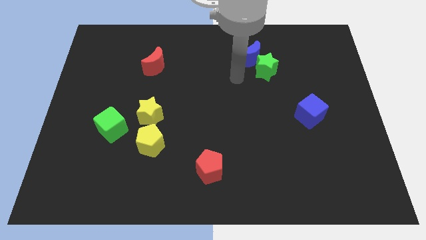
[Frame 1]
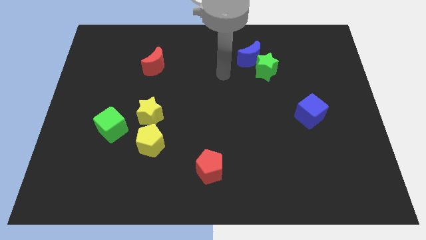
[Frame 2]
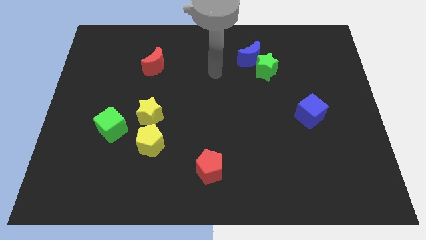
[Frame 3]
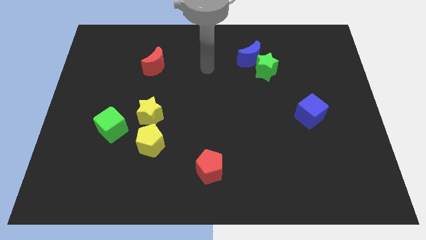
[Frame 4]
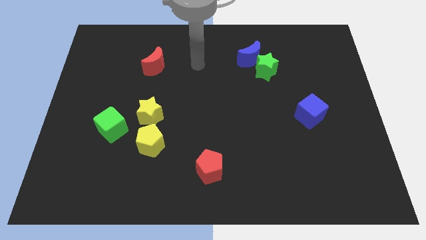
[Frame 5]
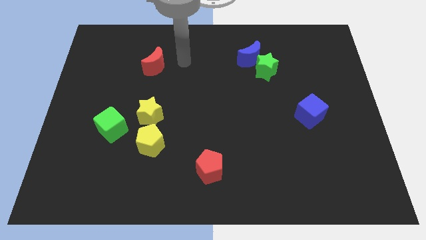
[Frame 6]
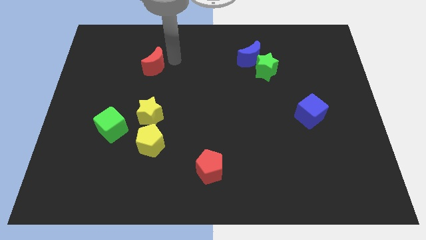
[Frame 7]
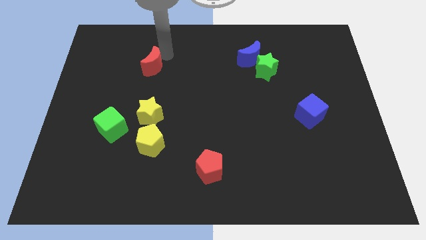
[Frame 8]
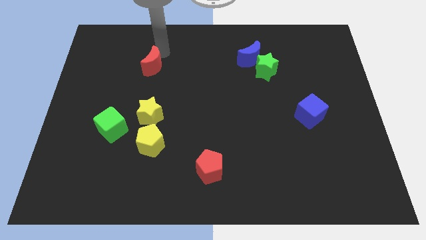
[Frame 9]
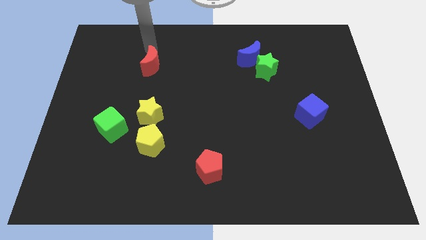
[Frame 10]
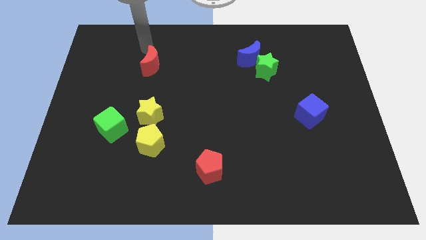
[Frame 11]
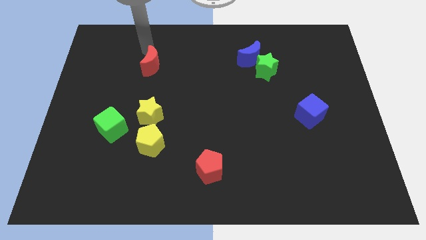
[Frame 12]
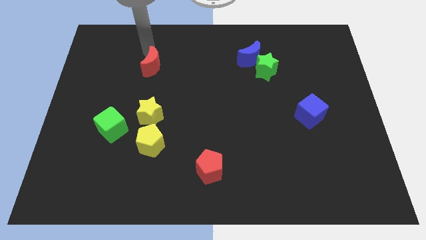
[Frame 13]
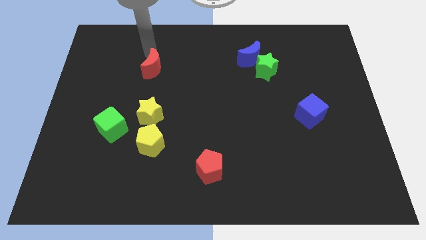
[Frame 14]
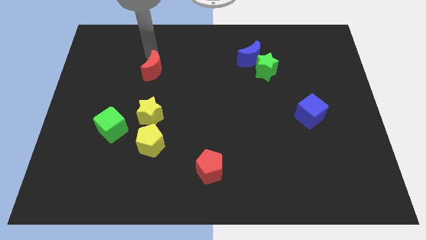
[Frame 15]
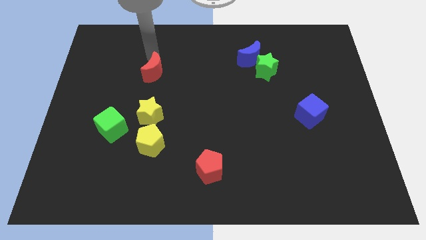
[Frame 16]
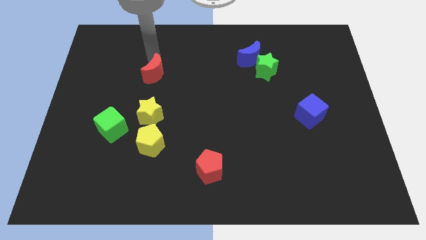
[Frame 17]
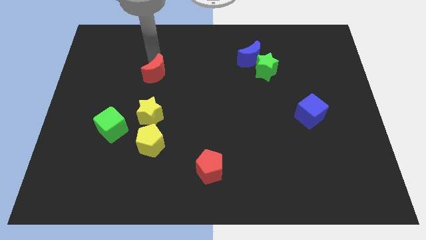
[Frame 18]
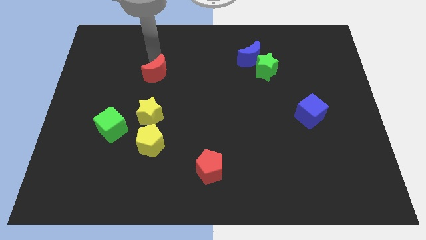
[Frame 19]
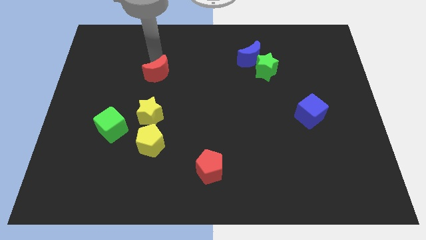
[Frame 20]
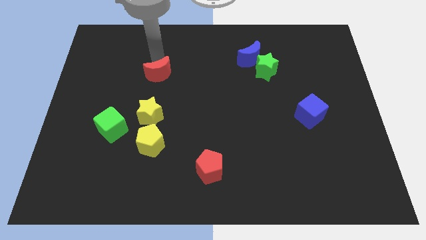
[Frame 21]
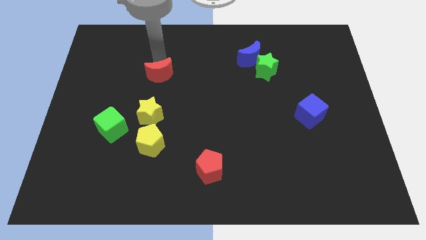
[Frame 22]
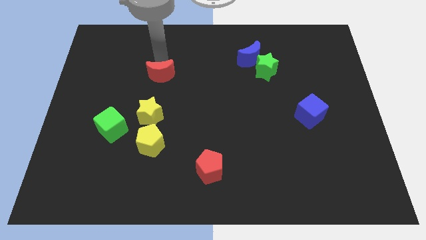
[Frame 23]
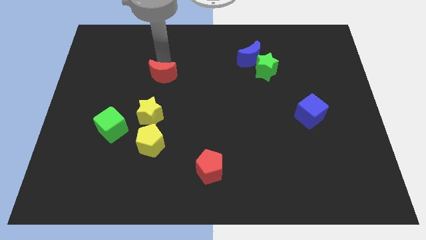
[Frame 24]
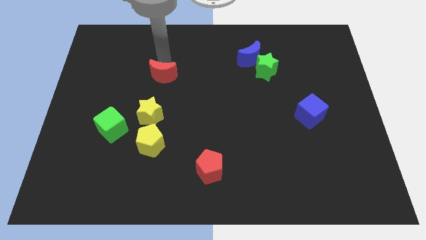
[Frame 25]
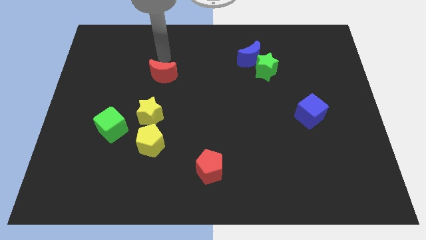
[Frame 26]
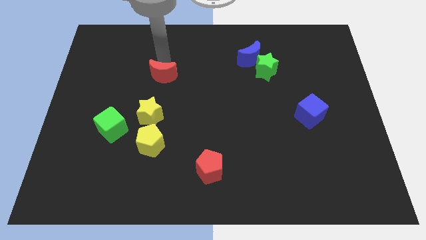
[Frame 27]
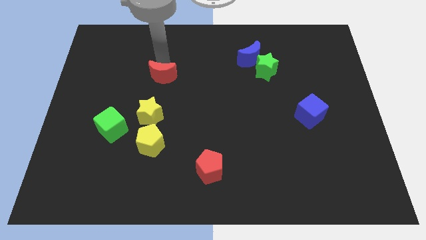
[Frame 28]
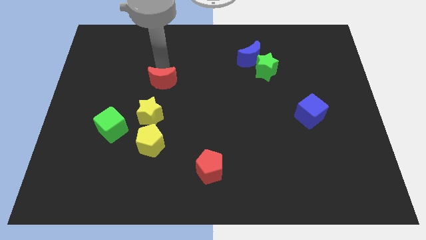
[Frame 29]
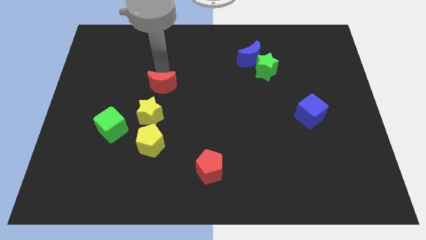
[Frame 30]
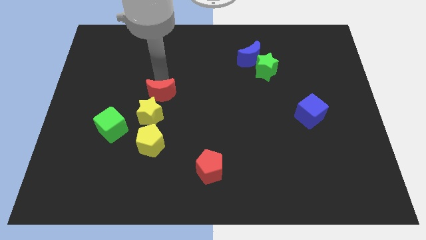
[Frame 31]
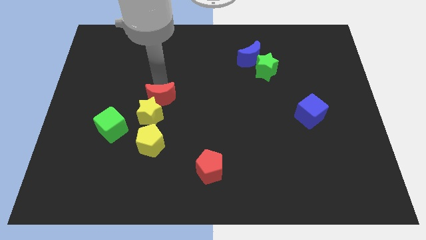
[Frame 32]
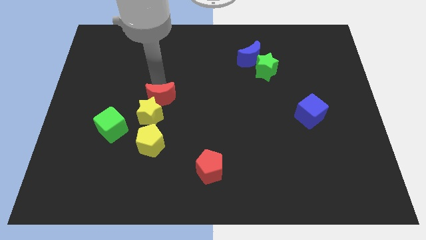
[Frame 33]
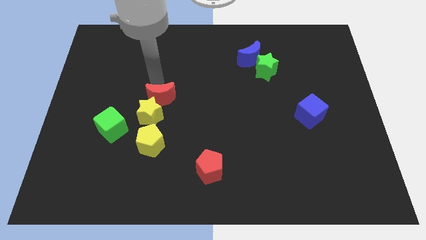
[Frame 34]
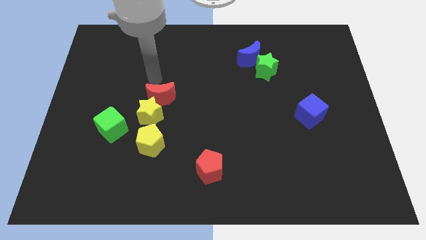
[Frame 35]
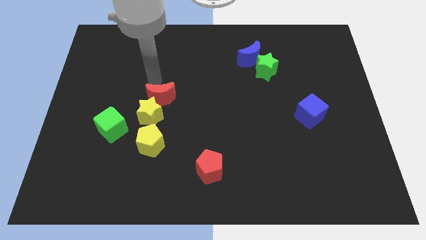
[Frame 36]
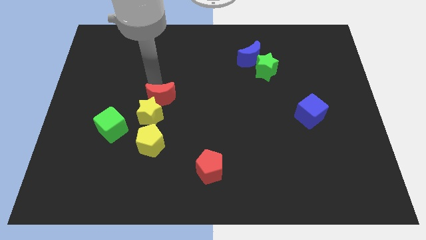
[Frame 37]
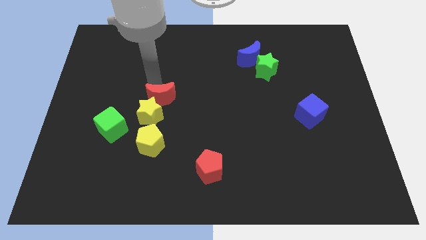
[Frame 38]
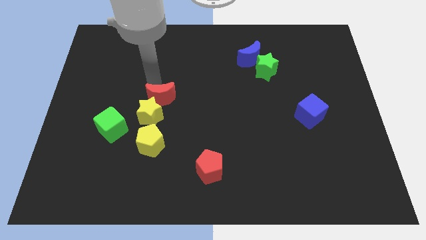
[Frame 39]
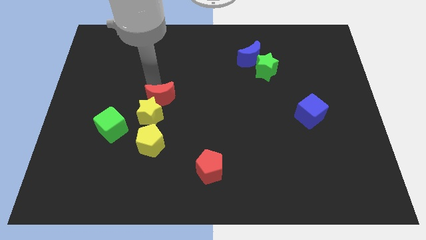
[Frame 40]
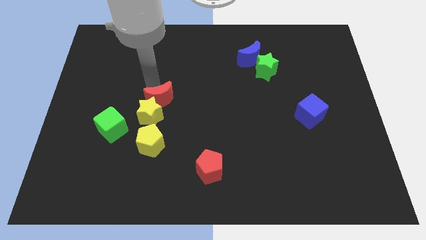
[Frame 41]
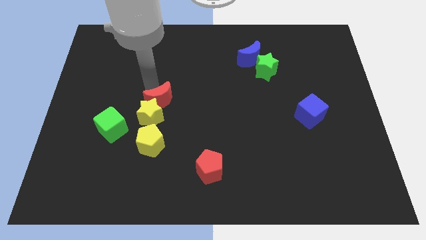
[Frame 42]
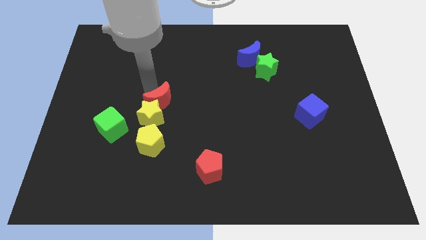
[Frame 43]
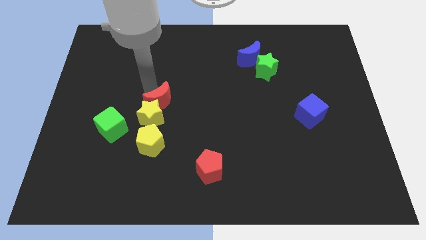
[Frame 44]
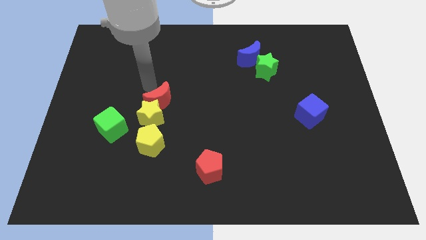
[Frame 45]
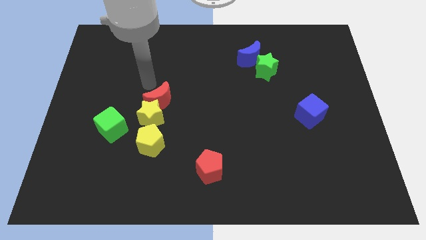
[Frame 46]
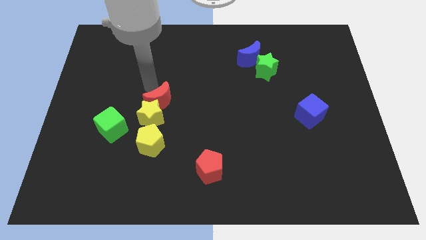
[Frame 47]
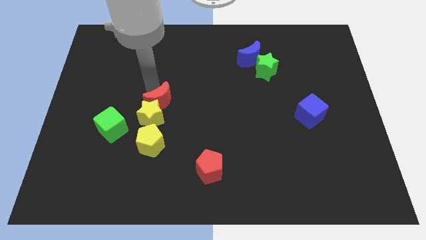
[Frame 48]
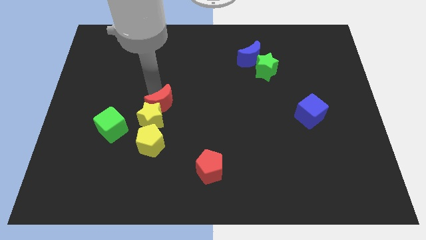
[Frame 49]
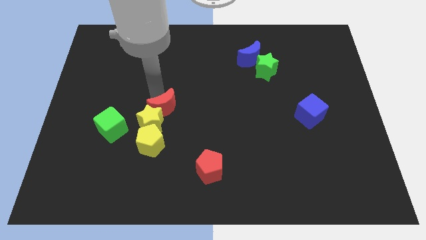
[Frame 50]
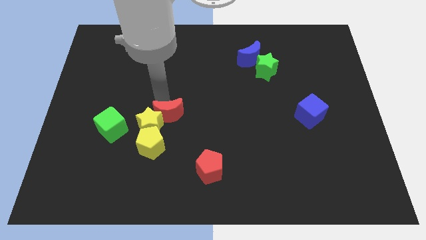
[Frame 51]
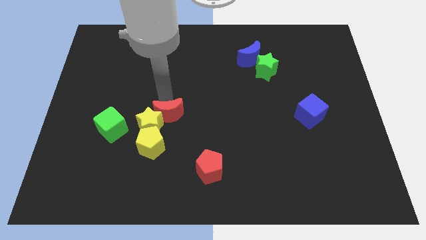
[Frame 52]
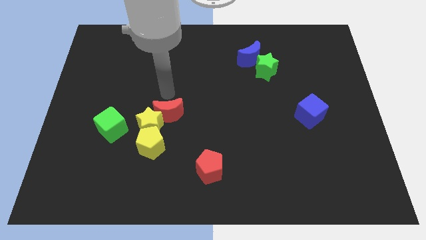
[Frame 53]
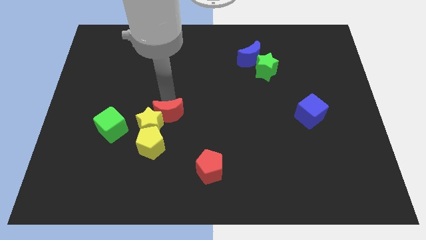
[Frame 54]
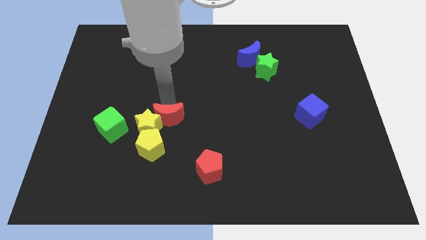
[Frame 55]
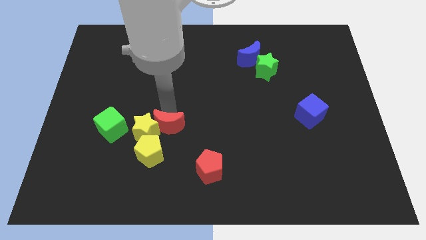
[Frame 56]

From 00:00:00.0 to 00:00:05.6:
move the red moon diagonally down and to the right of the yellow star

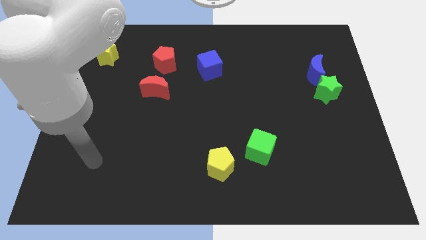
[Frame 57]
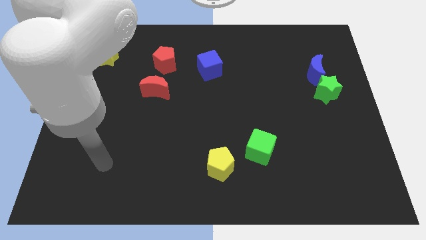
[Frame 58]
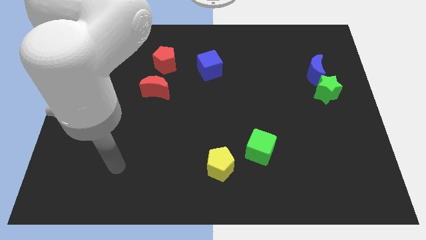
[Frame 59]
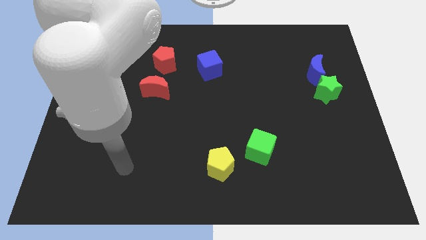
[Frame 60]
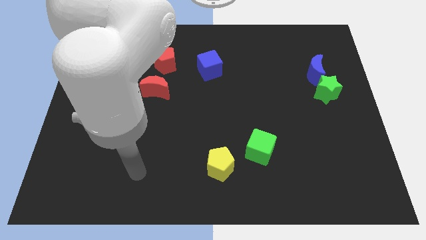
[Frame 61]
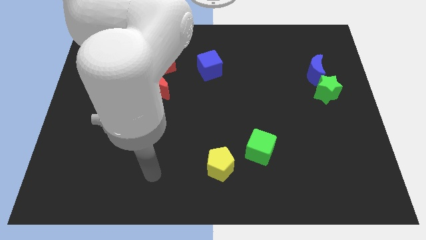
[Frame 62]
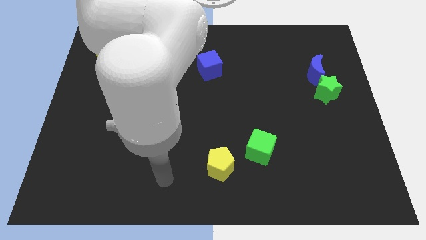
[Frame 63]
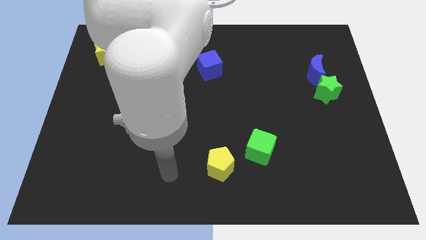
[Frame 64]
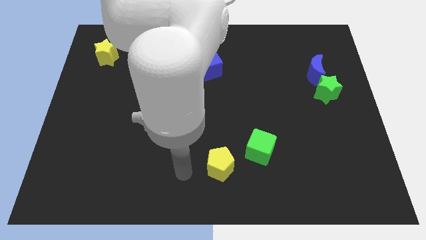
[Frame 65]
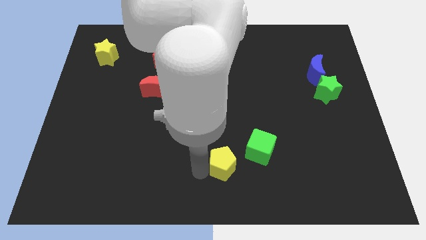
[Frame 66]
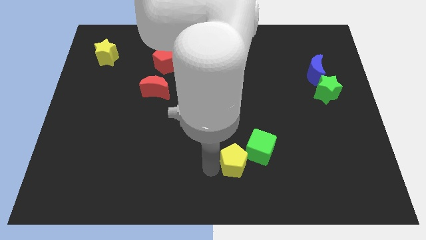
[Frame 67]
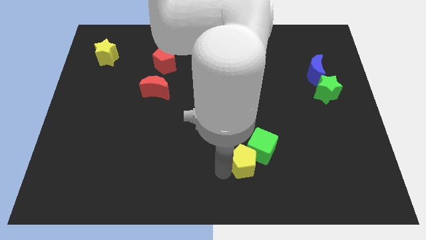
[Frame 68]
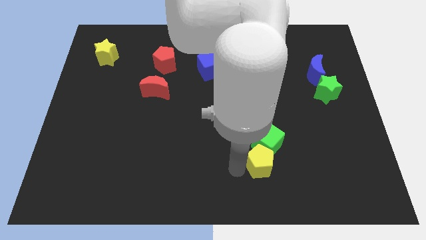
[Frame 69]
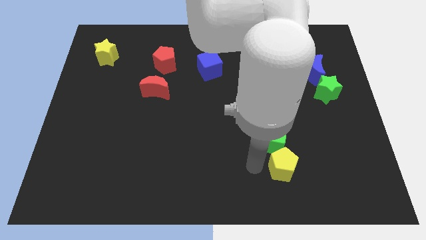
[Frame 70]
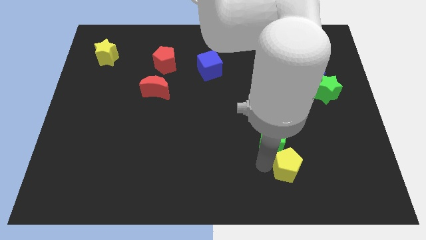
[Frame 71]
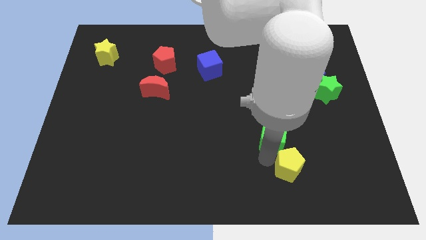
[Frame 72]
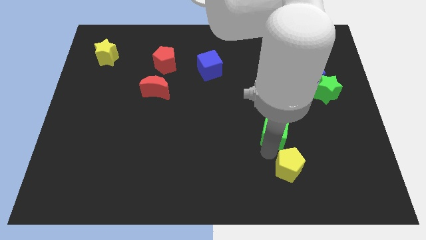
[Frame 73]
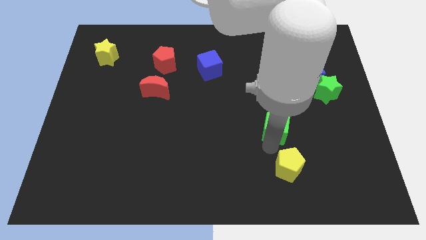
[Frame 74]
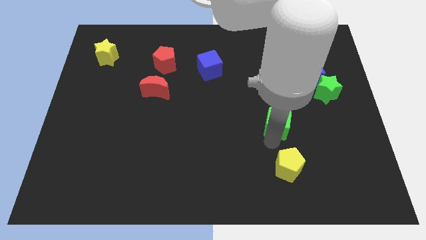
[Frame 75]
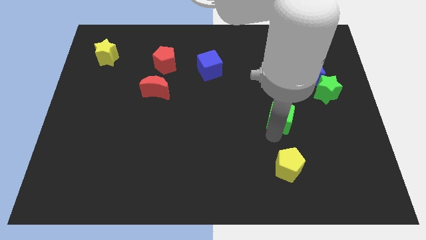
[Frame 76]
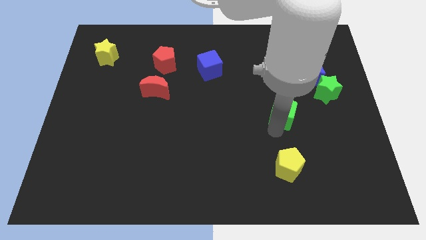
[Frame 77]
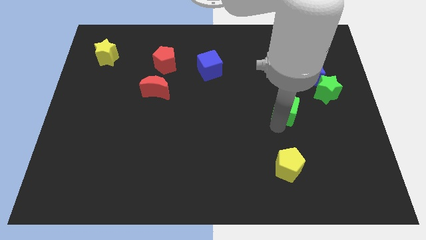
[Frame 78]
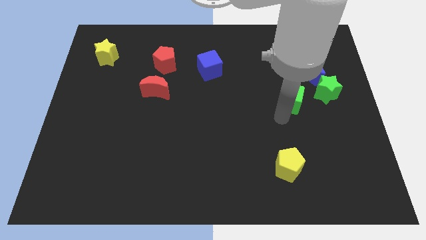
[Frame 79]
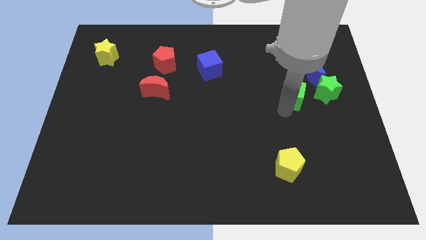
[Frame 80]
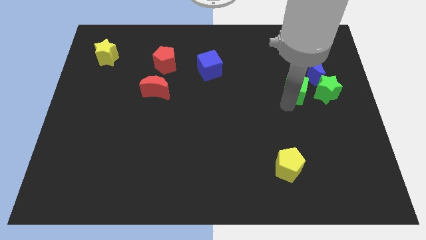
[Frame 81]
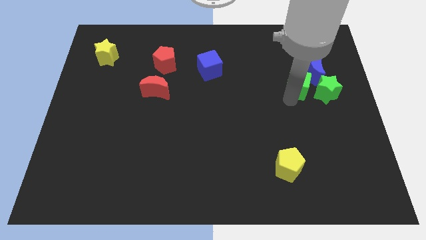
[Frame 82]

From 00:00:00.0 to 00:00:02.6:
slide the green cube to the top left side of the green star
